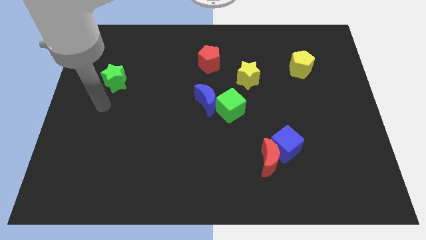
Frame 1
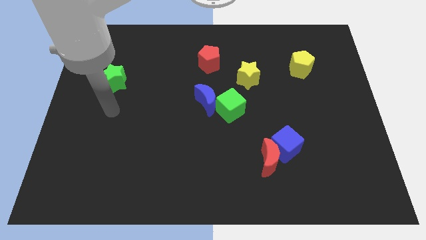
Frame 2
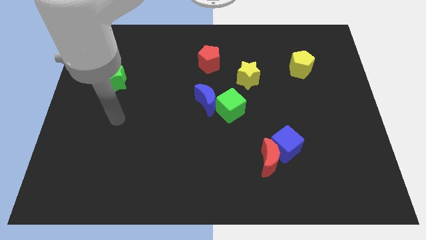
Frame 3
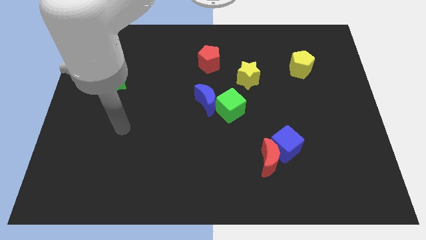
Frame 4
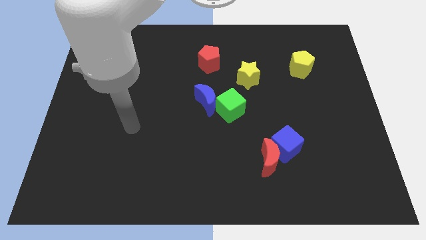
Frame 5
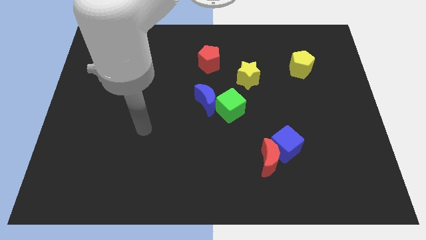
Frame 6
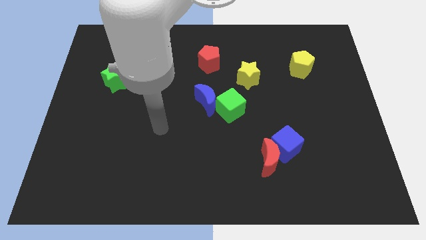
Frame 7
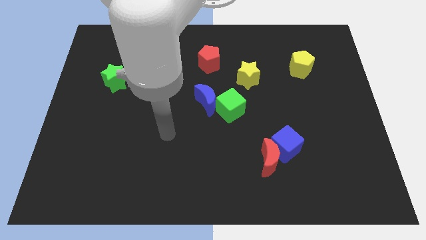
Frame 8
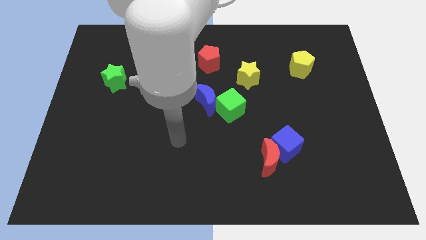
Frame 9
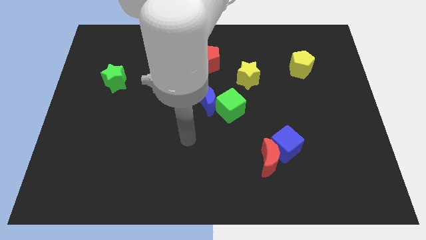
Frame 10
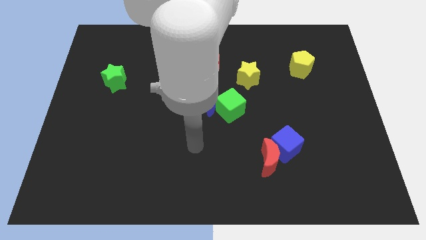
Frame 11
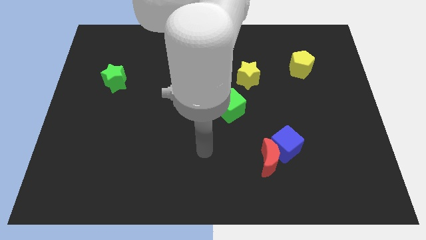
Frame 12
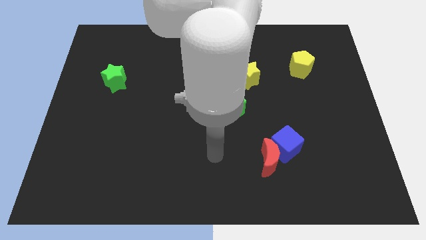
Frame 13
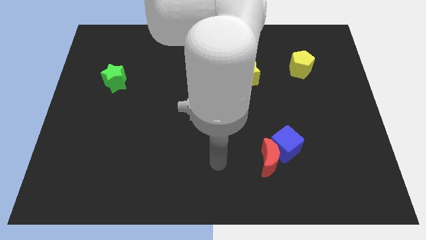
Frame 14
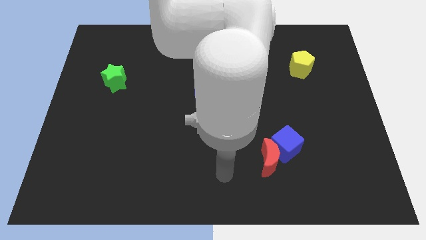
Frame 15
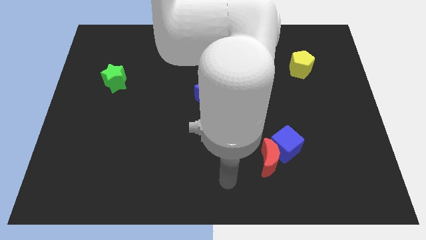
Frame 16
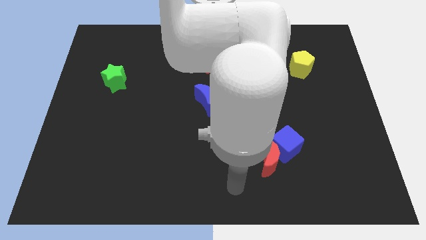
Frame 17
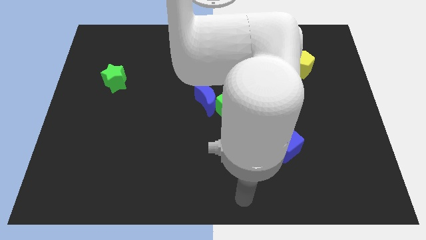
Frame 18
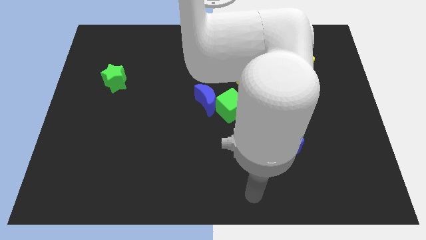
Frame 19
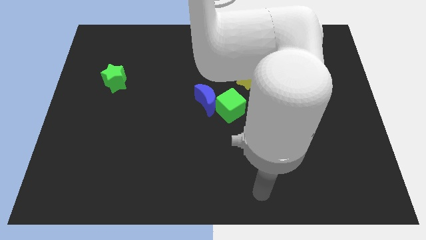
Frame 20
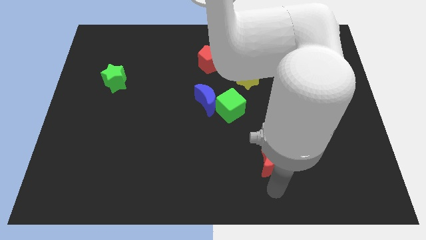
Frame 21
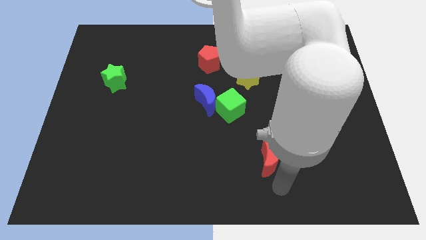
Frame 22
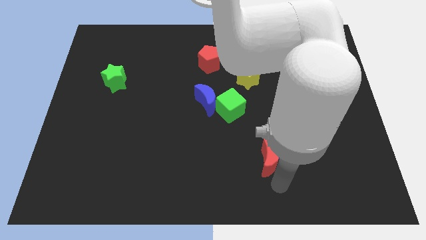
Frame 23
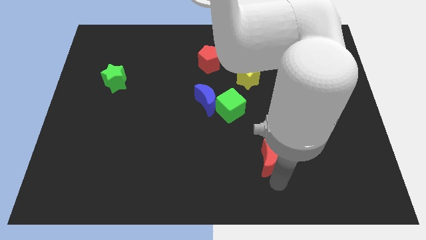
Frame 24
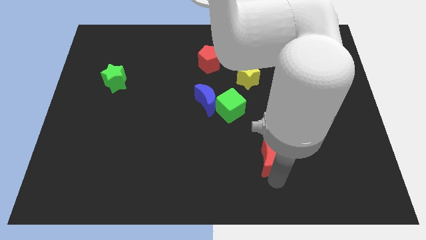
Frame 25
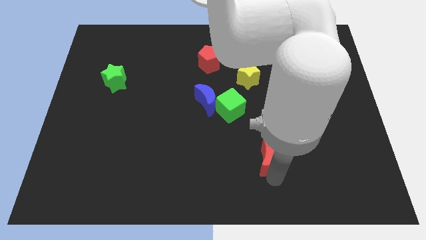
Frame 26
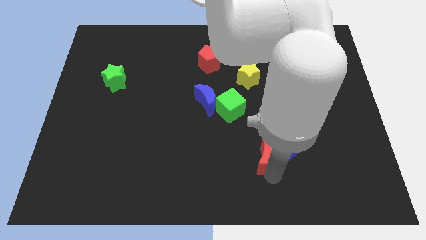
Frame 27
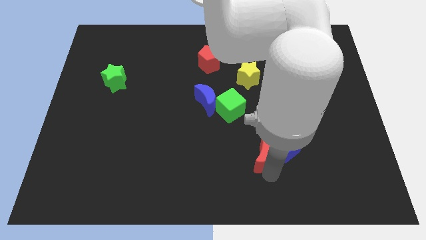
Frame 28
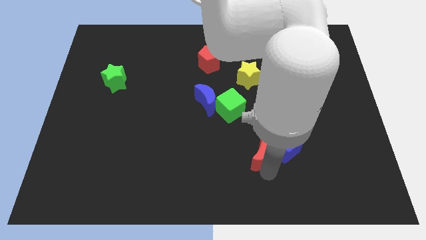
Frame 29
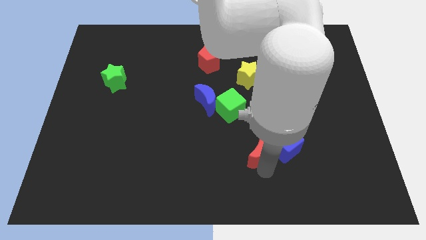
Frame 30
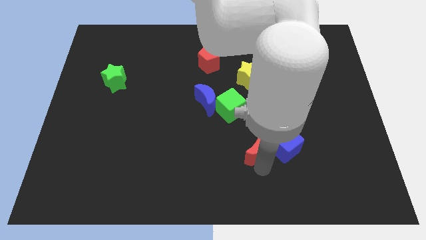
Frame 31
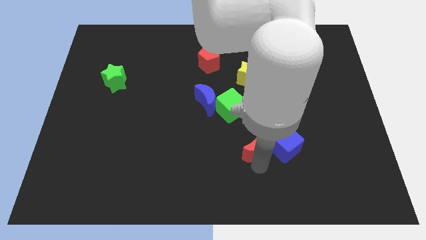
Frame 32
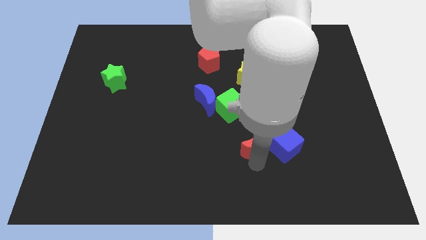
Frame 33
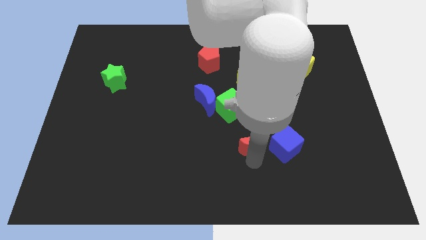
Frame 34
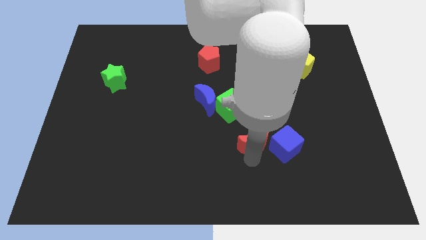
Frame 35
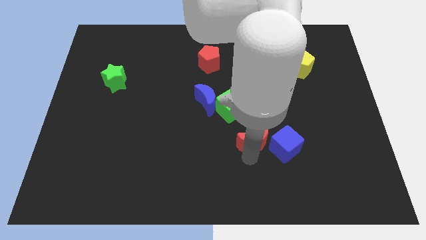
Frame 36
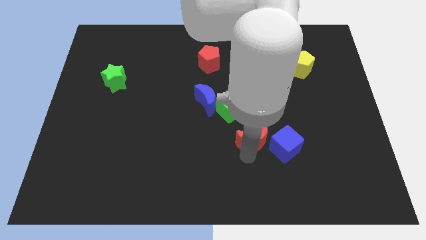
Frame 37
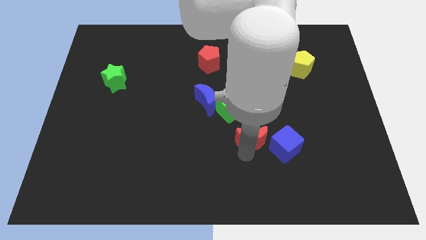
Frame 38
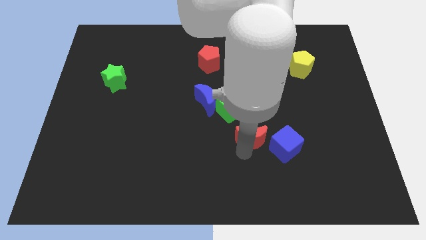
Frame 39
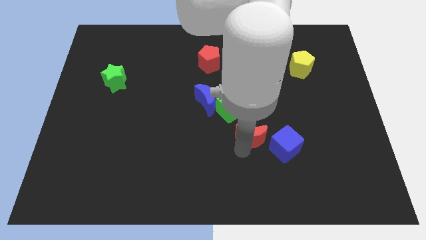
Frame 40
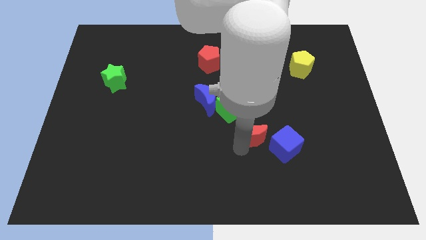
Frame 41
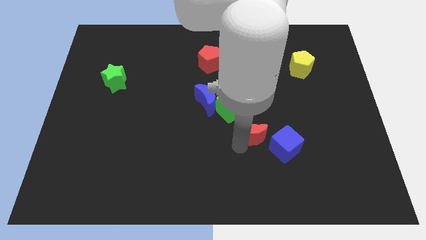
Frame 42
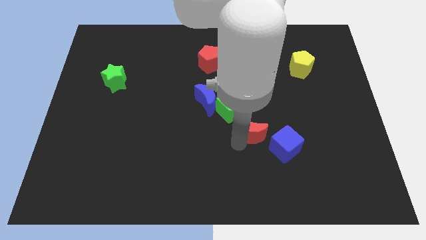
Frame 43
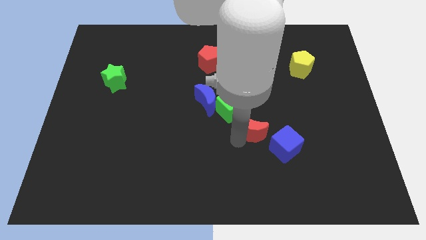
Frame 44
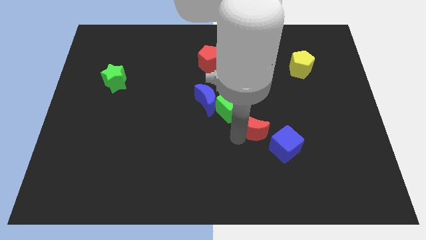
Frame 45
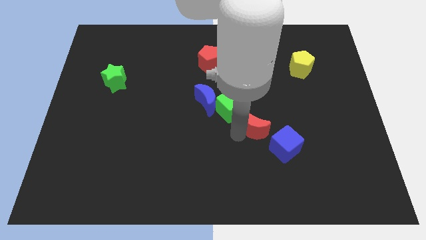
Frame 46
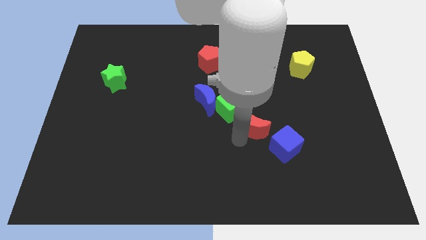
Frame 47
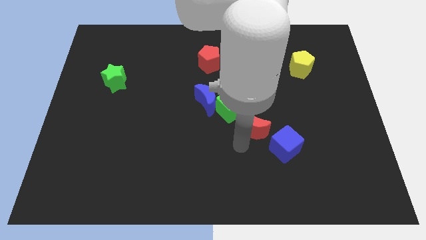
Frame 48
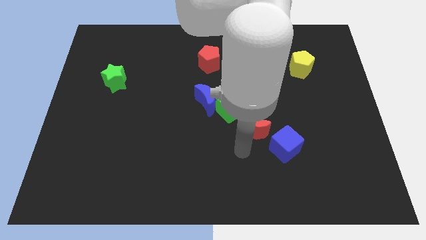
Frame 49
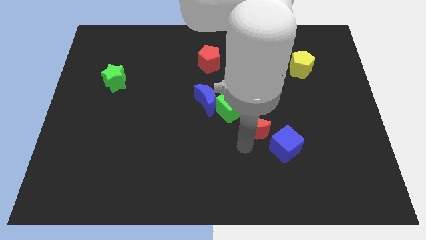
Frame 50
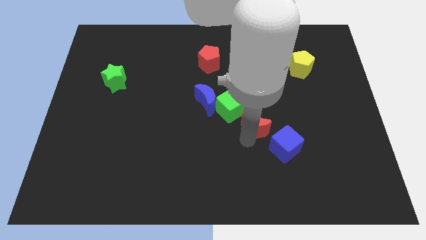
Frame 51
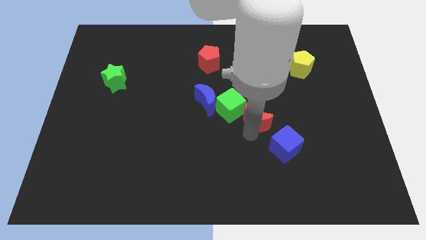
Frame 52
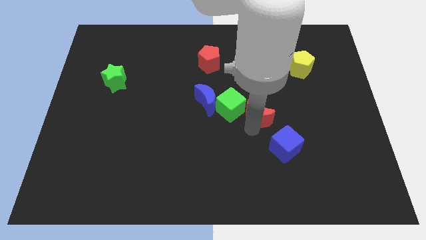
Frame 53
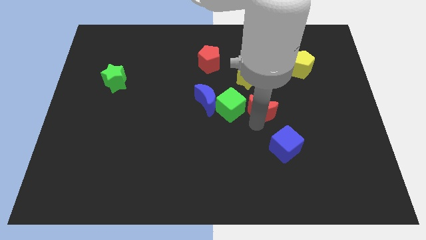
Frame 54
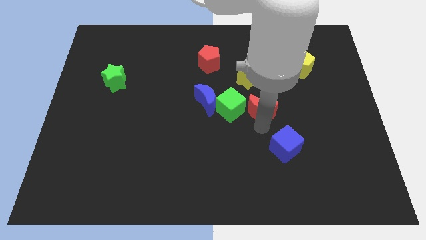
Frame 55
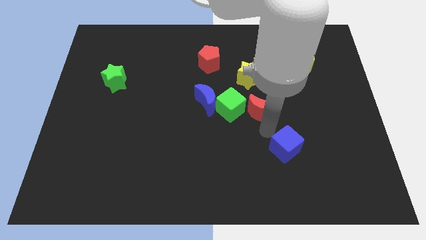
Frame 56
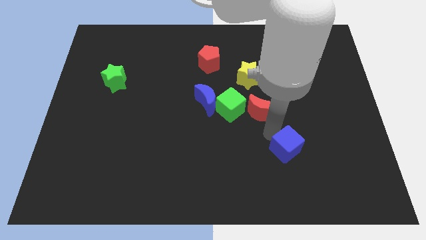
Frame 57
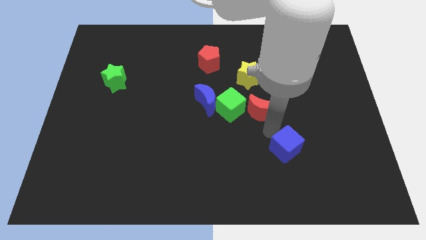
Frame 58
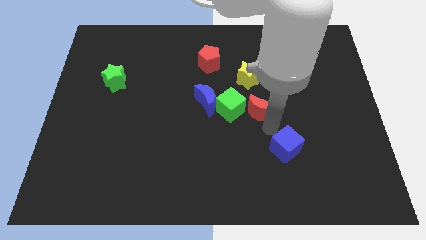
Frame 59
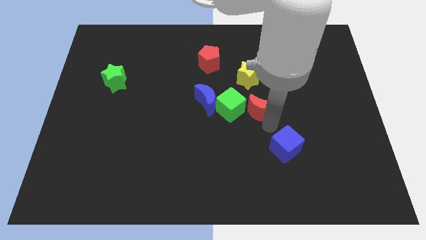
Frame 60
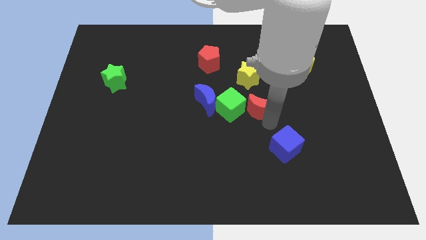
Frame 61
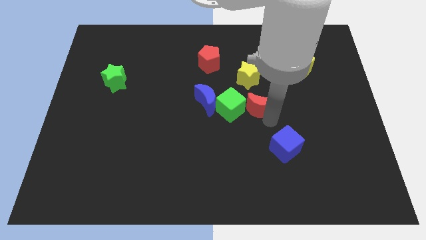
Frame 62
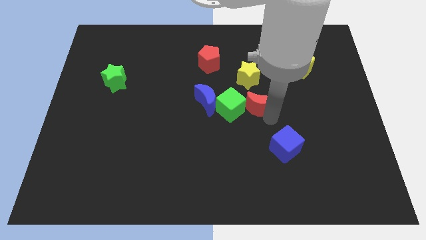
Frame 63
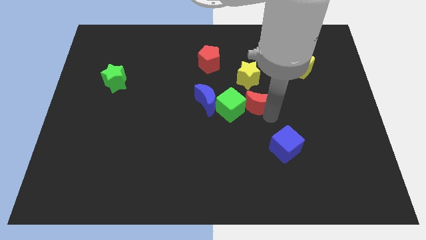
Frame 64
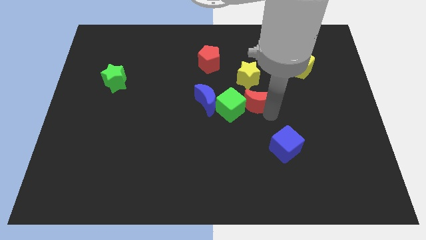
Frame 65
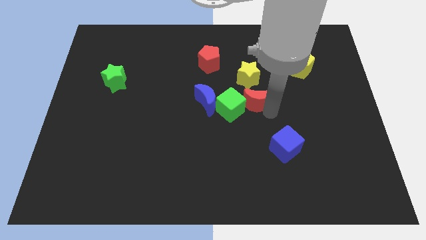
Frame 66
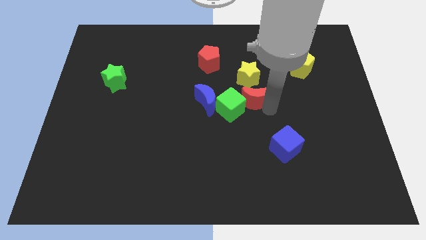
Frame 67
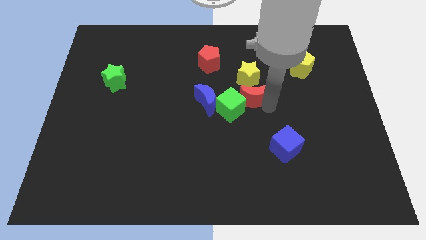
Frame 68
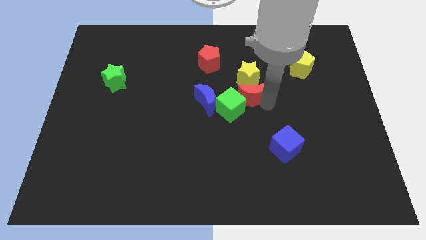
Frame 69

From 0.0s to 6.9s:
move the red moon close to the yellow star
